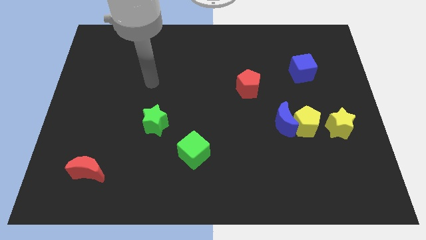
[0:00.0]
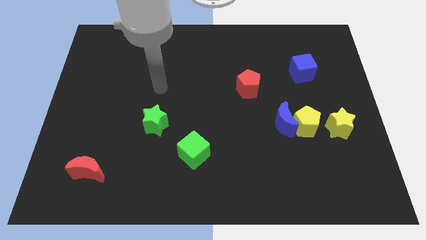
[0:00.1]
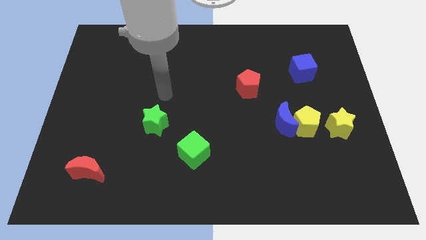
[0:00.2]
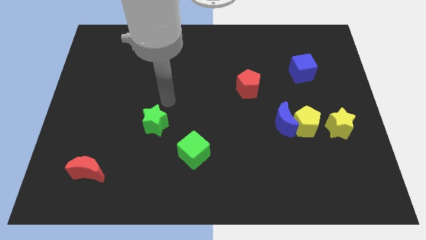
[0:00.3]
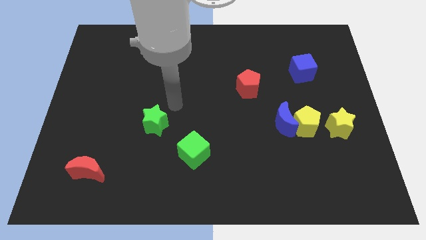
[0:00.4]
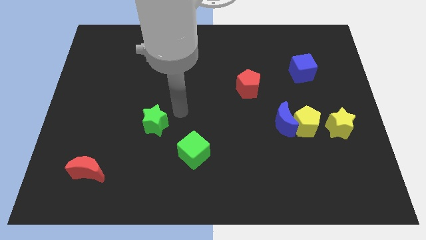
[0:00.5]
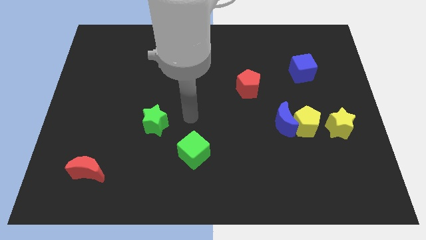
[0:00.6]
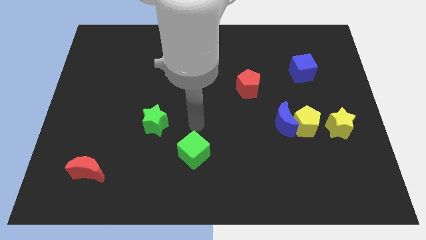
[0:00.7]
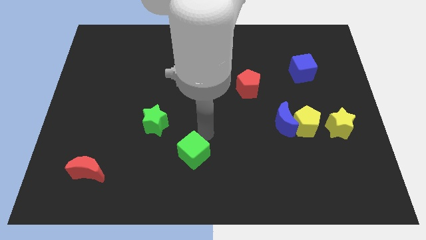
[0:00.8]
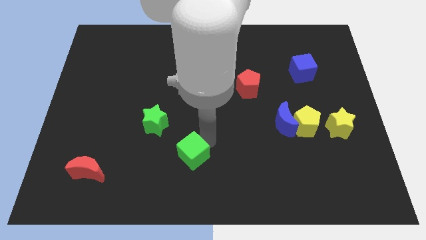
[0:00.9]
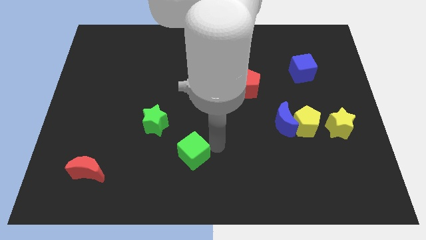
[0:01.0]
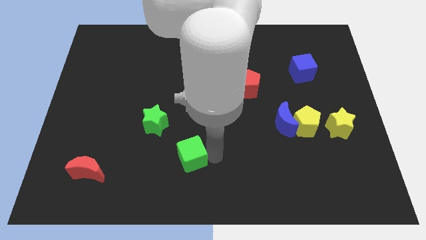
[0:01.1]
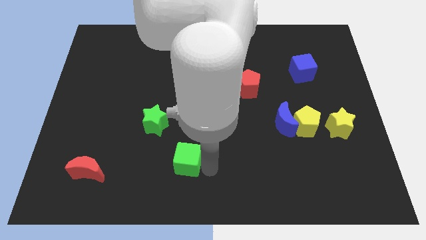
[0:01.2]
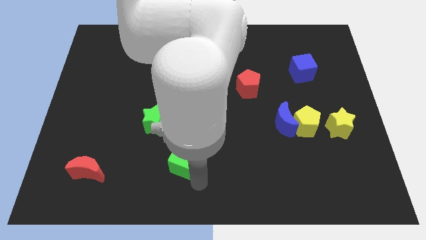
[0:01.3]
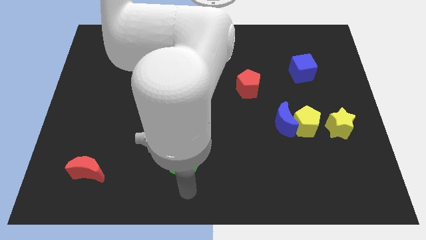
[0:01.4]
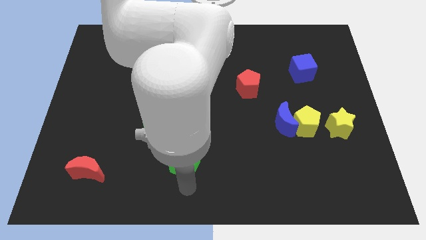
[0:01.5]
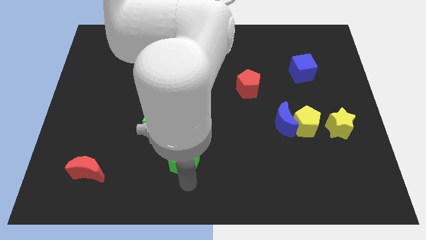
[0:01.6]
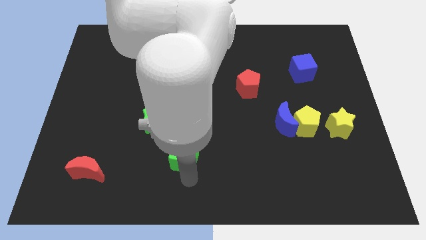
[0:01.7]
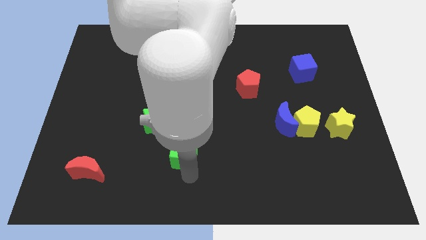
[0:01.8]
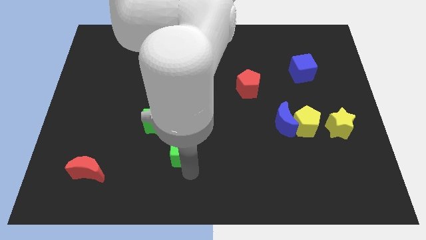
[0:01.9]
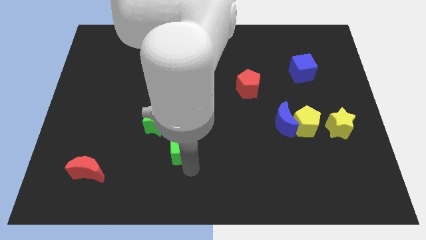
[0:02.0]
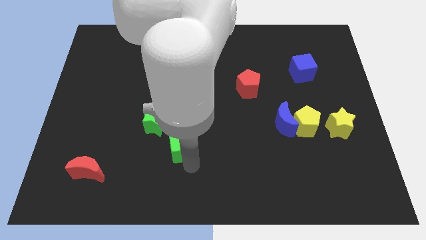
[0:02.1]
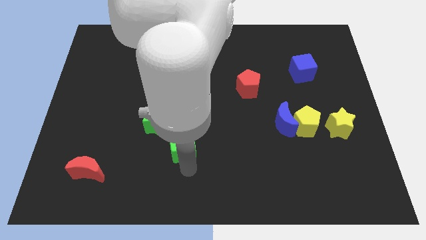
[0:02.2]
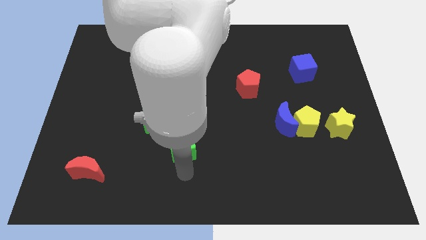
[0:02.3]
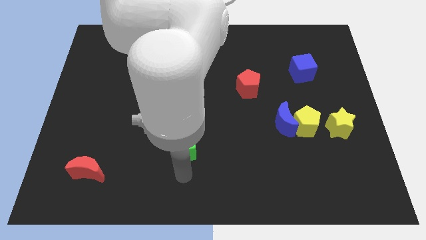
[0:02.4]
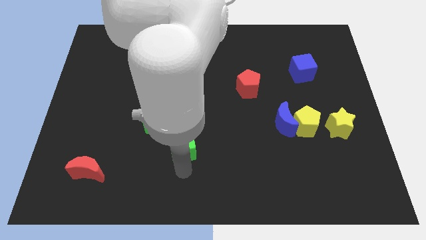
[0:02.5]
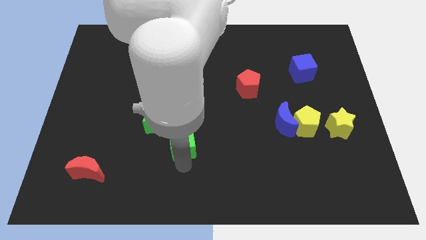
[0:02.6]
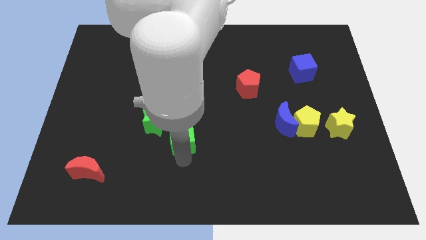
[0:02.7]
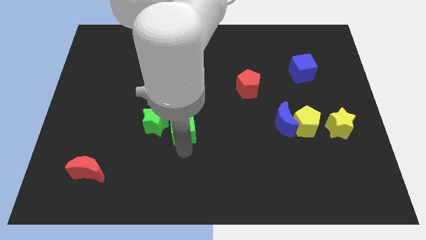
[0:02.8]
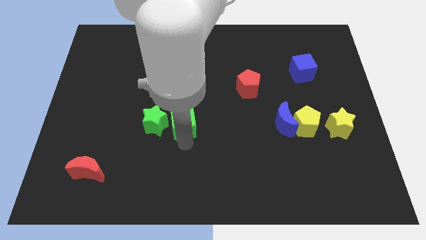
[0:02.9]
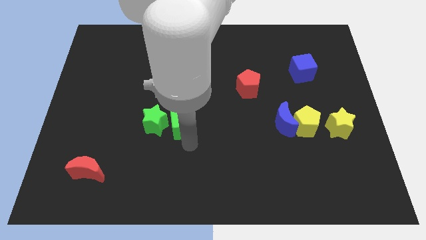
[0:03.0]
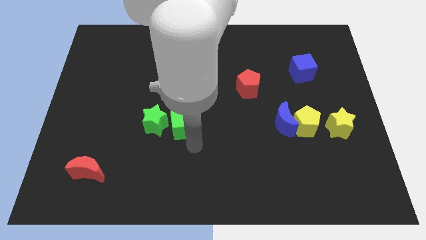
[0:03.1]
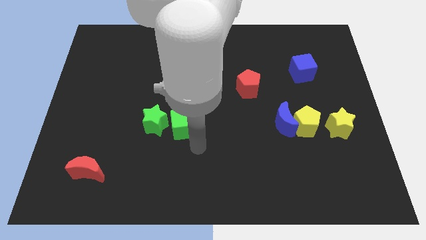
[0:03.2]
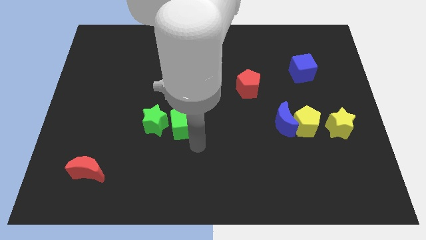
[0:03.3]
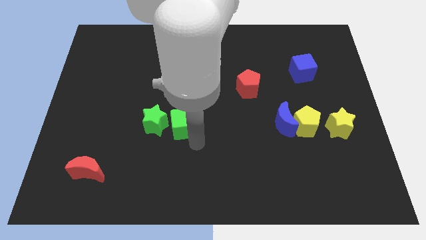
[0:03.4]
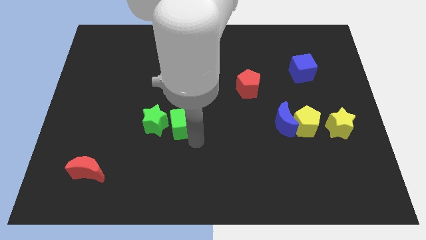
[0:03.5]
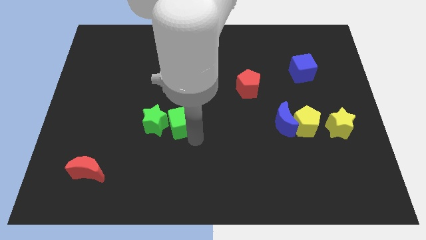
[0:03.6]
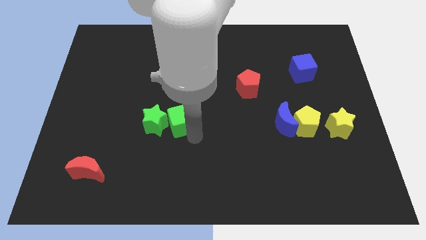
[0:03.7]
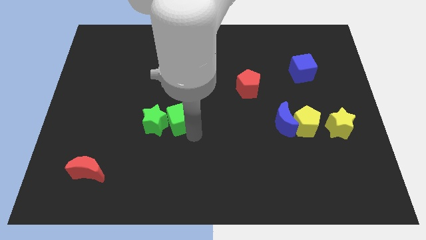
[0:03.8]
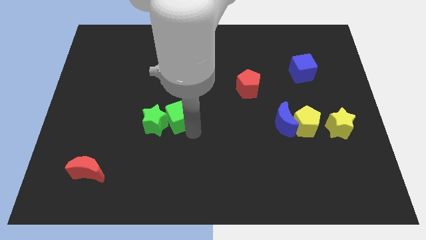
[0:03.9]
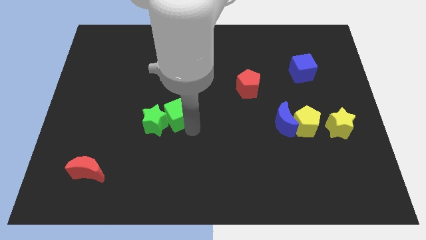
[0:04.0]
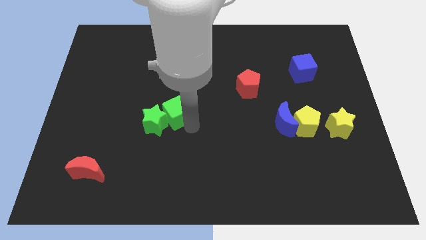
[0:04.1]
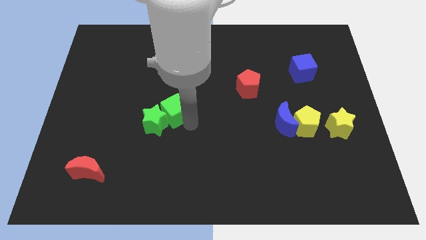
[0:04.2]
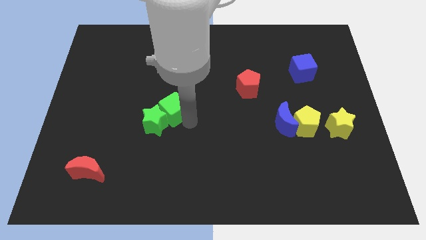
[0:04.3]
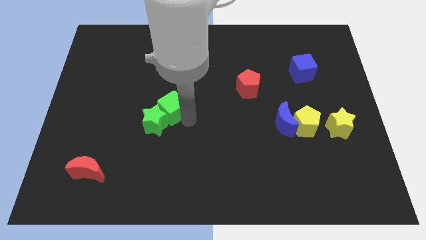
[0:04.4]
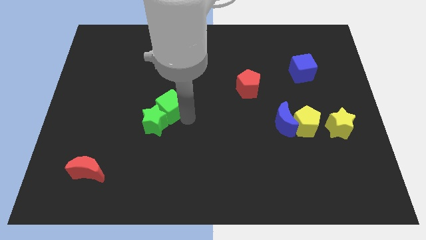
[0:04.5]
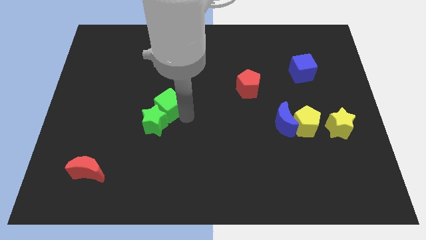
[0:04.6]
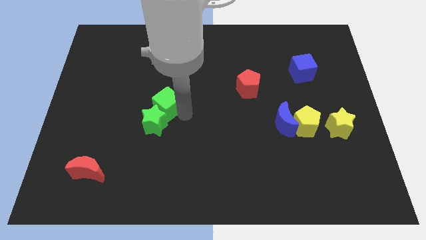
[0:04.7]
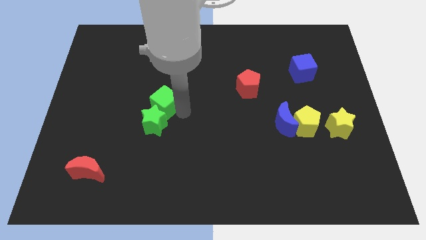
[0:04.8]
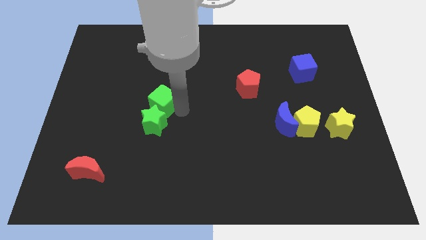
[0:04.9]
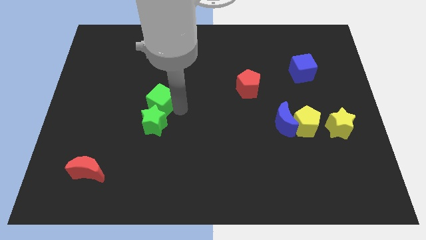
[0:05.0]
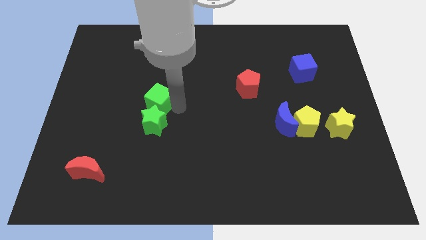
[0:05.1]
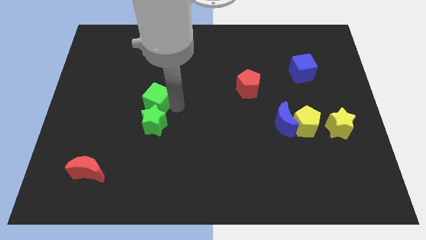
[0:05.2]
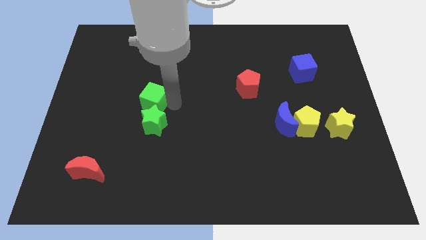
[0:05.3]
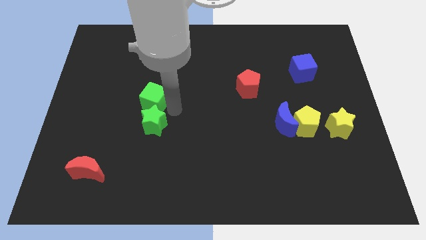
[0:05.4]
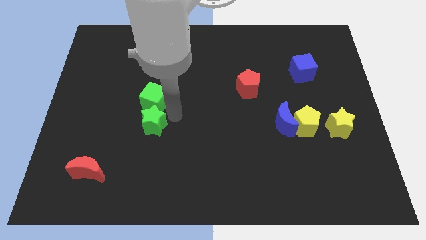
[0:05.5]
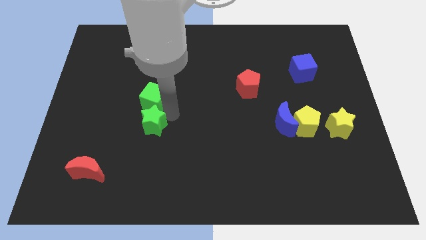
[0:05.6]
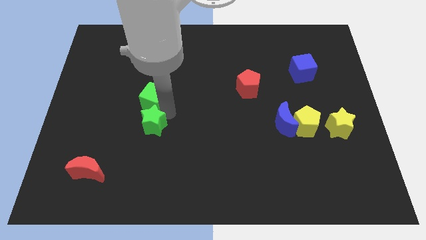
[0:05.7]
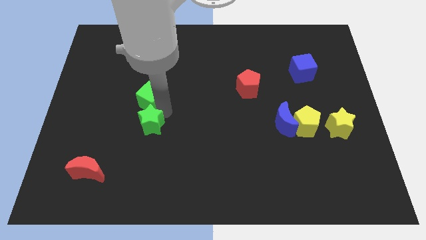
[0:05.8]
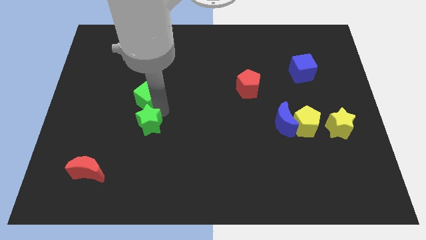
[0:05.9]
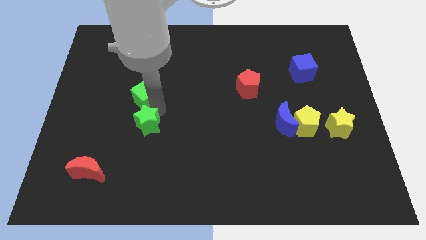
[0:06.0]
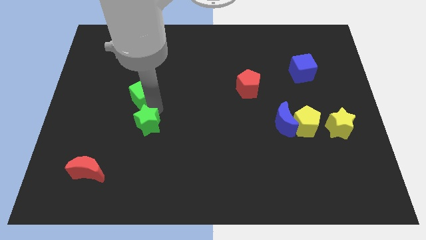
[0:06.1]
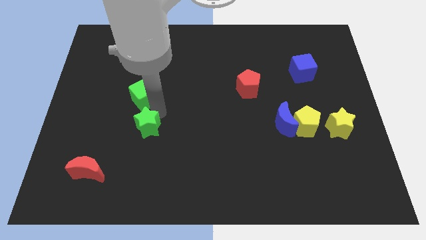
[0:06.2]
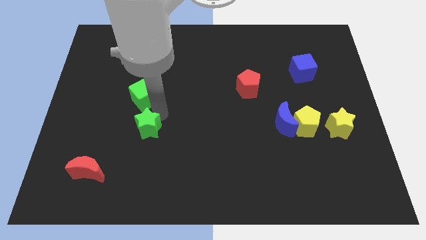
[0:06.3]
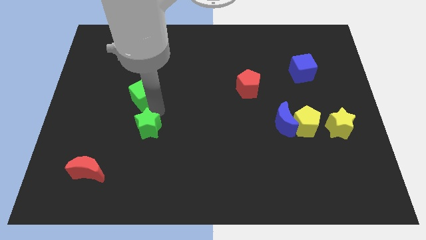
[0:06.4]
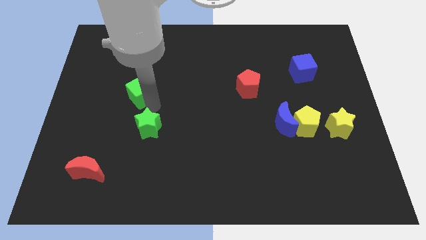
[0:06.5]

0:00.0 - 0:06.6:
slide the green cube up and to the left diagonally

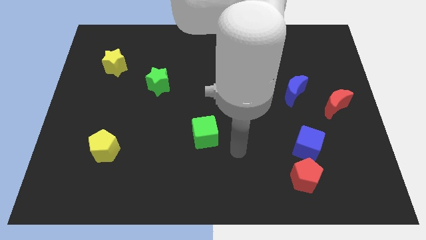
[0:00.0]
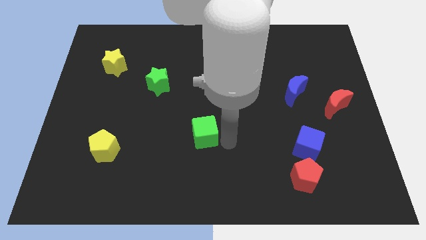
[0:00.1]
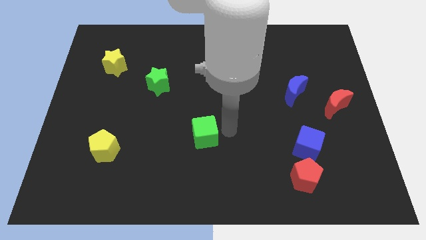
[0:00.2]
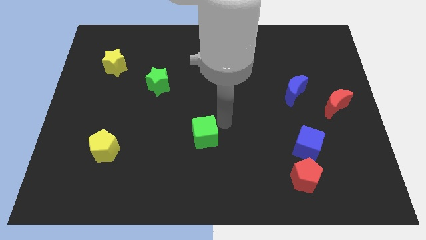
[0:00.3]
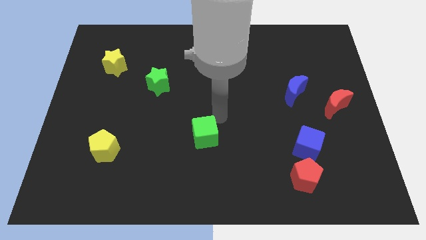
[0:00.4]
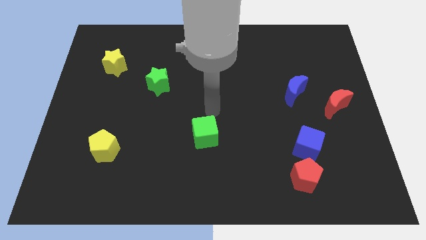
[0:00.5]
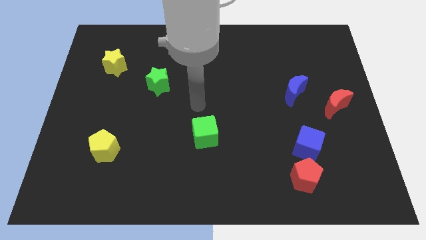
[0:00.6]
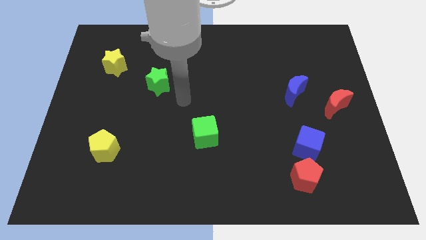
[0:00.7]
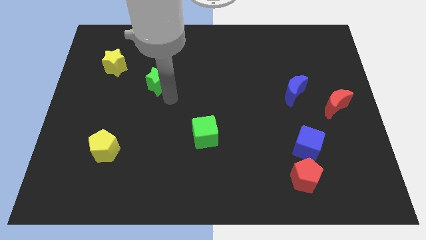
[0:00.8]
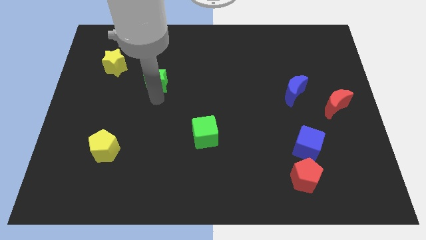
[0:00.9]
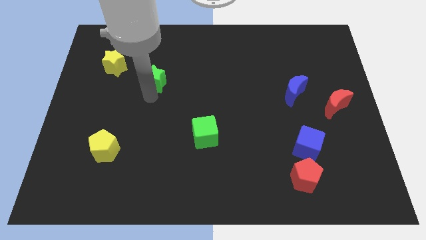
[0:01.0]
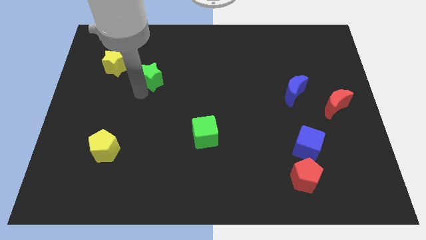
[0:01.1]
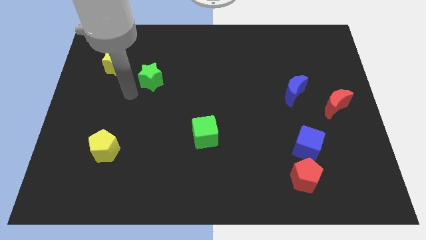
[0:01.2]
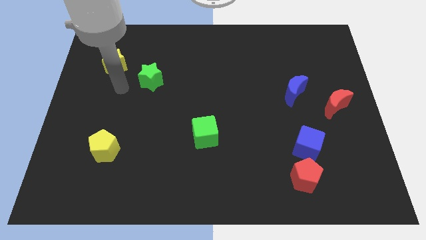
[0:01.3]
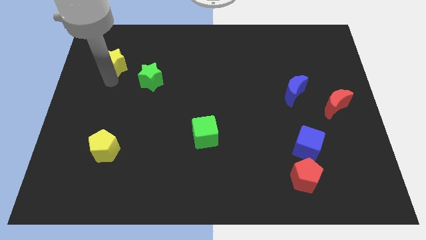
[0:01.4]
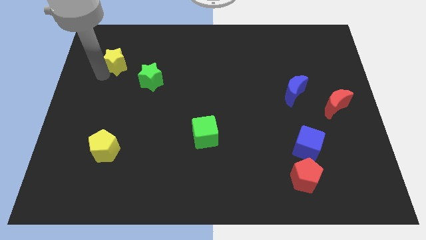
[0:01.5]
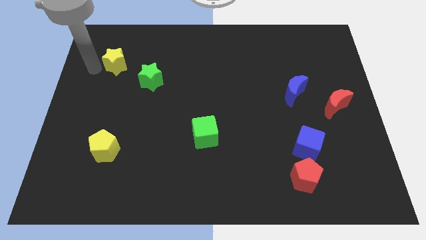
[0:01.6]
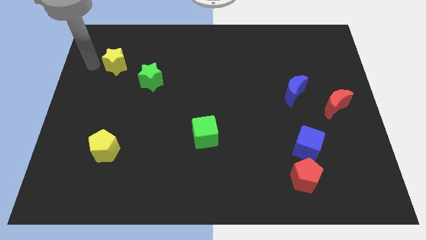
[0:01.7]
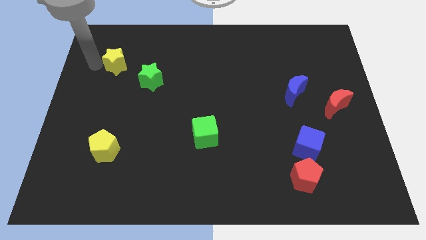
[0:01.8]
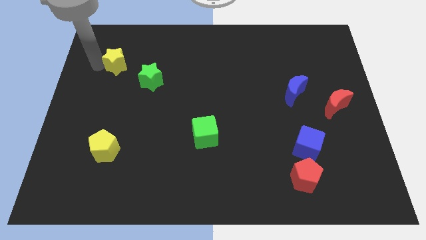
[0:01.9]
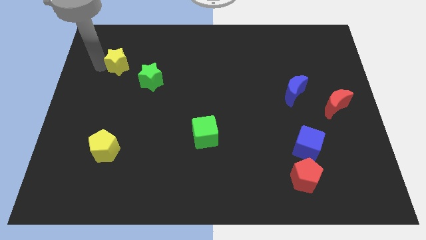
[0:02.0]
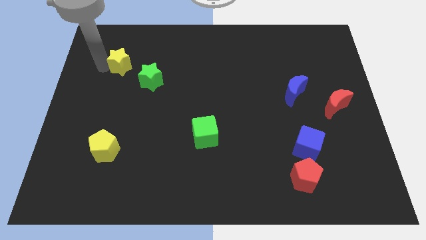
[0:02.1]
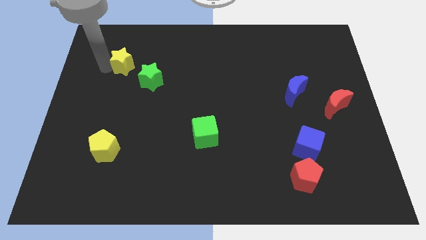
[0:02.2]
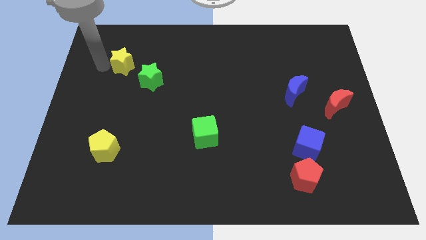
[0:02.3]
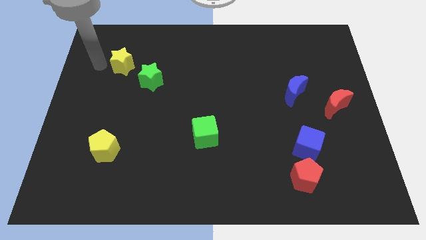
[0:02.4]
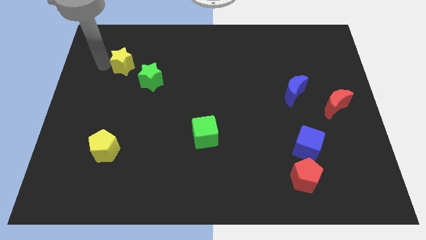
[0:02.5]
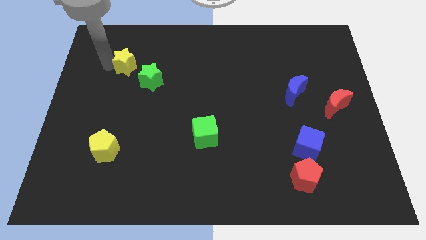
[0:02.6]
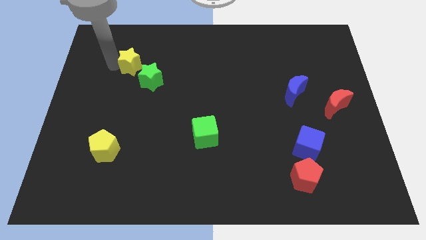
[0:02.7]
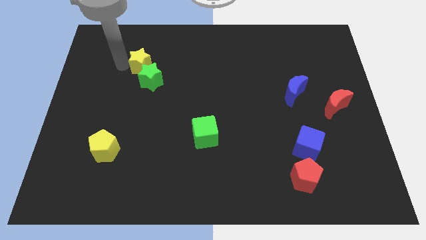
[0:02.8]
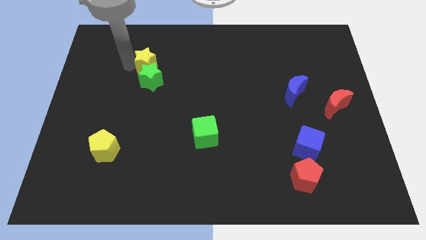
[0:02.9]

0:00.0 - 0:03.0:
move the yellow star right slightly
